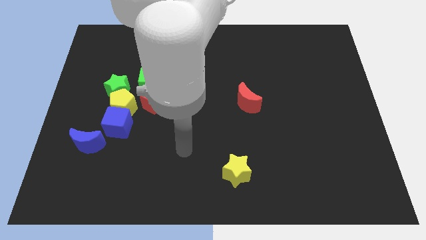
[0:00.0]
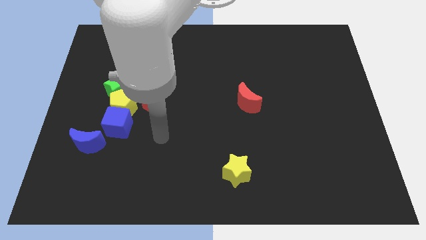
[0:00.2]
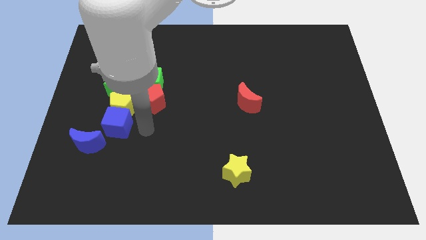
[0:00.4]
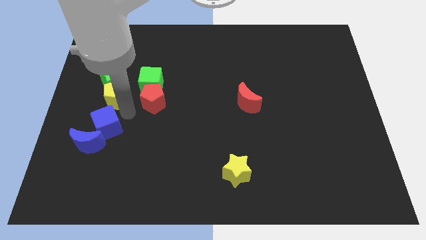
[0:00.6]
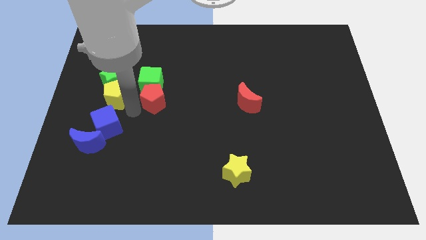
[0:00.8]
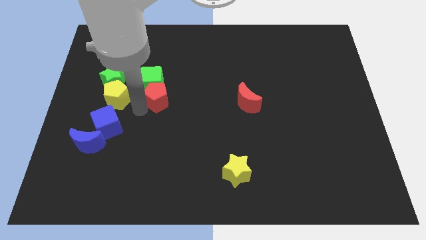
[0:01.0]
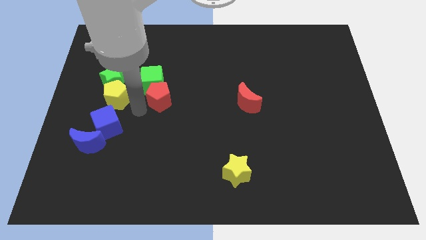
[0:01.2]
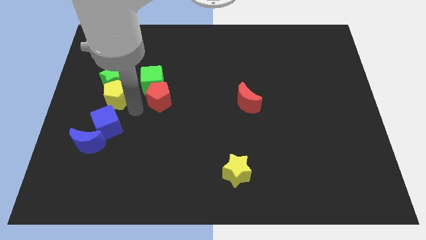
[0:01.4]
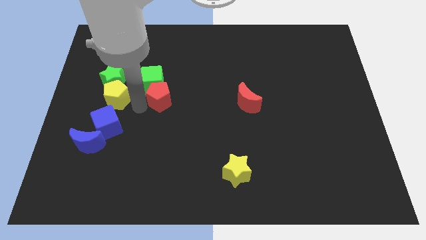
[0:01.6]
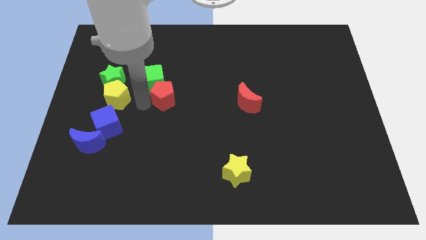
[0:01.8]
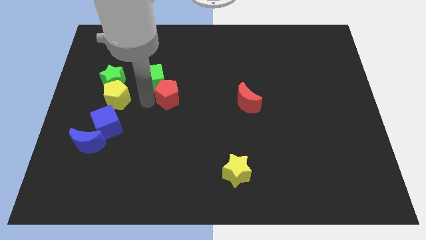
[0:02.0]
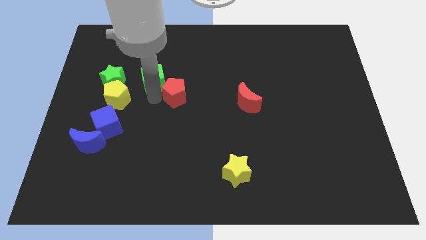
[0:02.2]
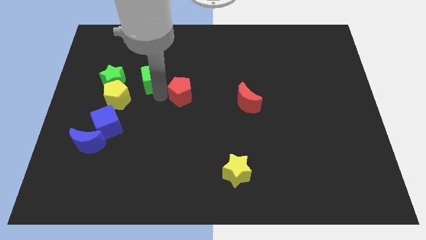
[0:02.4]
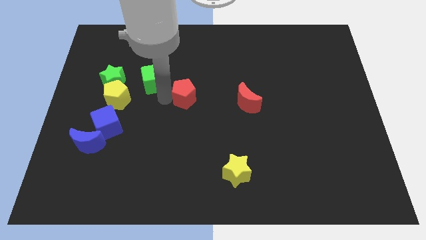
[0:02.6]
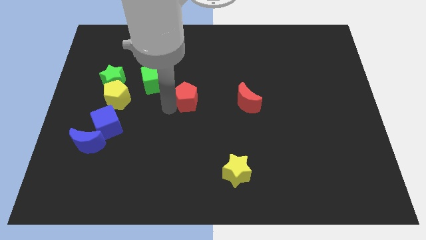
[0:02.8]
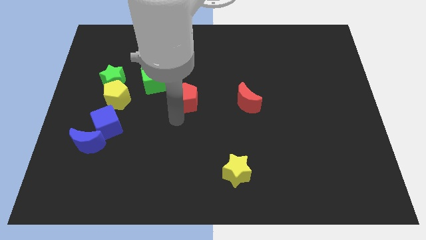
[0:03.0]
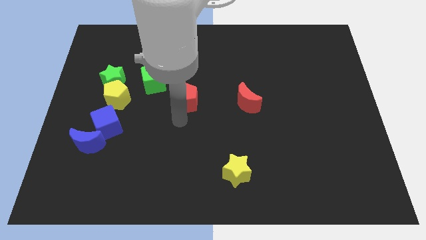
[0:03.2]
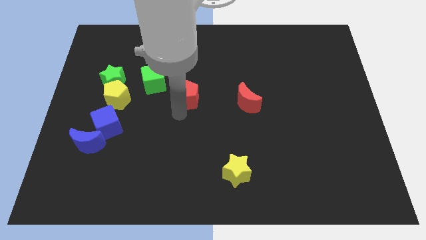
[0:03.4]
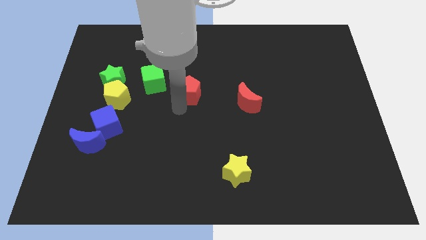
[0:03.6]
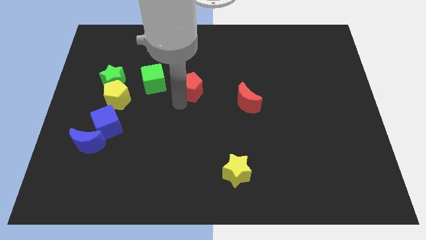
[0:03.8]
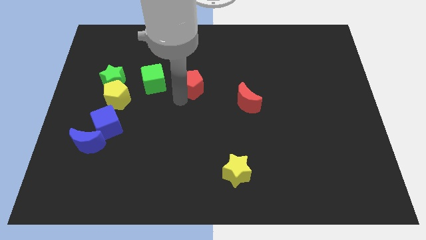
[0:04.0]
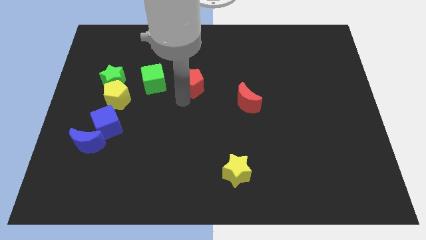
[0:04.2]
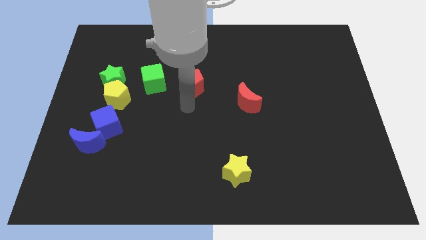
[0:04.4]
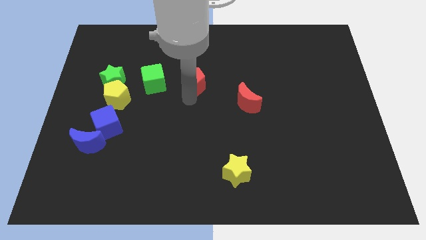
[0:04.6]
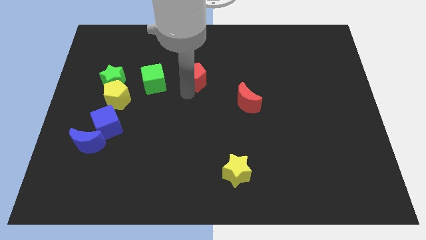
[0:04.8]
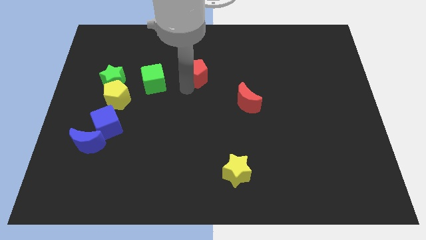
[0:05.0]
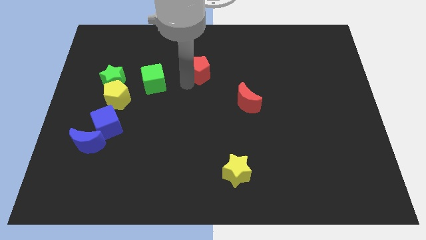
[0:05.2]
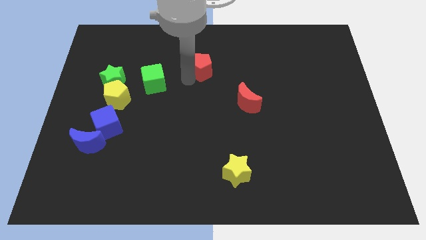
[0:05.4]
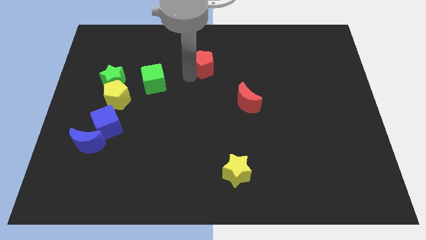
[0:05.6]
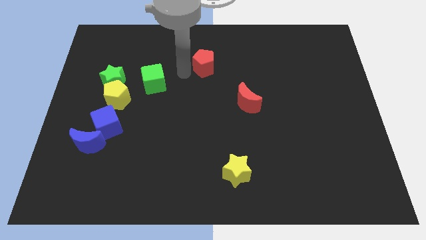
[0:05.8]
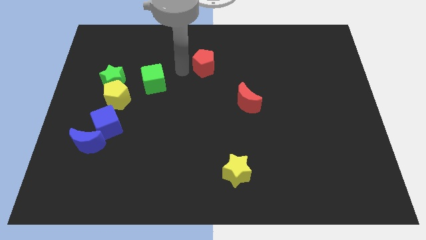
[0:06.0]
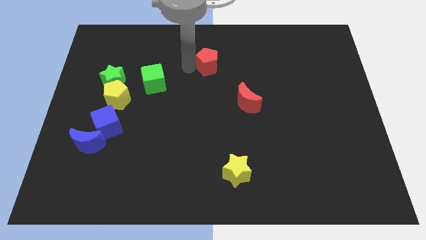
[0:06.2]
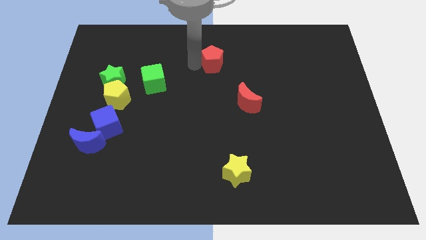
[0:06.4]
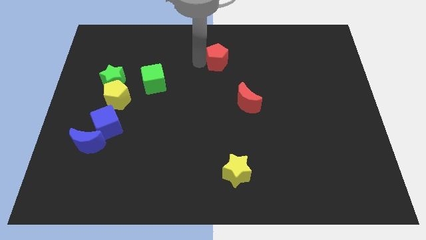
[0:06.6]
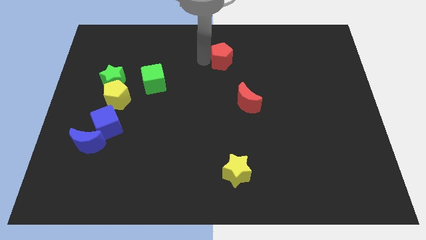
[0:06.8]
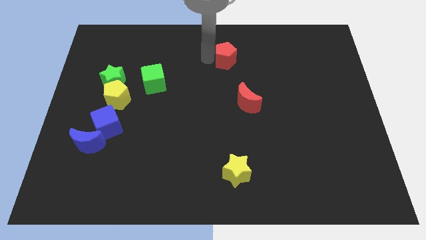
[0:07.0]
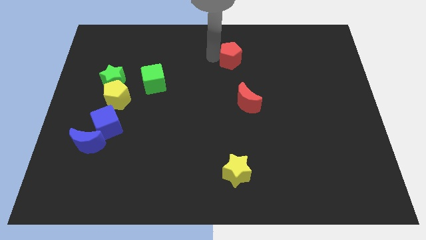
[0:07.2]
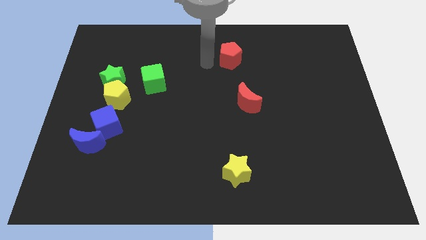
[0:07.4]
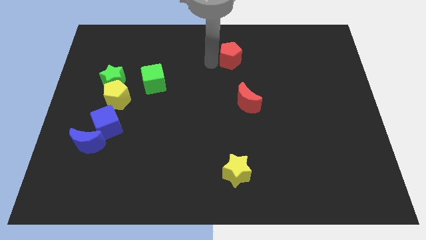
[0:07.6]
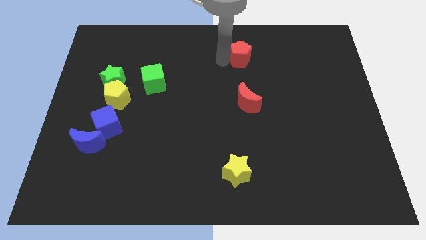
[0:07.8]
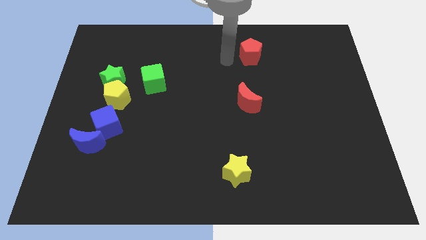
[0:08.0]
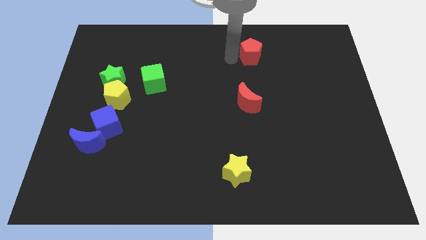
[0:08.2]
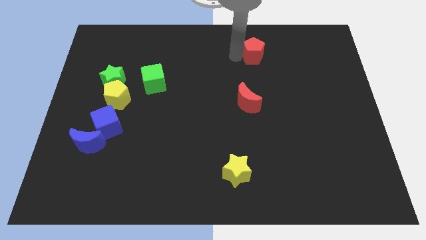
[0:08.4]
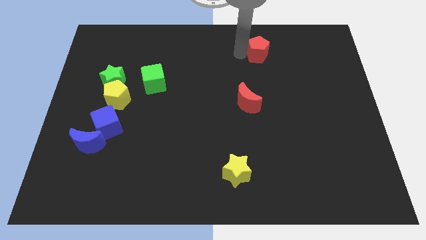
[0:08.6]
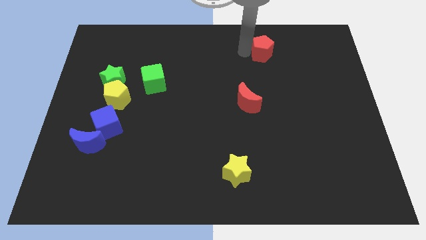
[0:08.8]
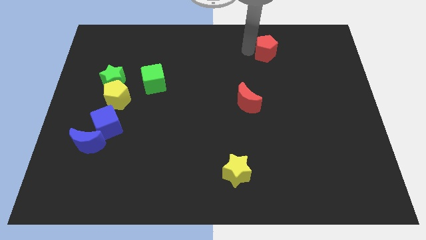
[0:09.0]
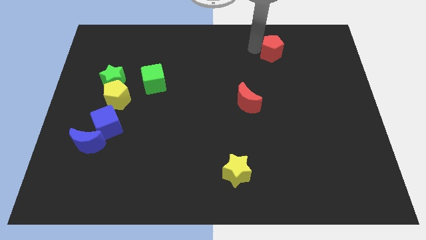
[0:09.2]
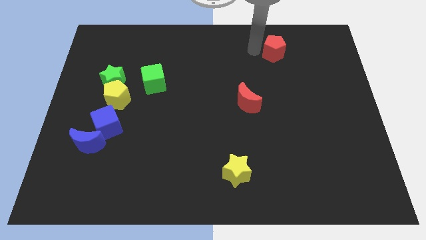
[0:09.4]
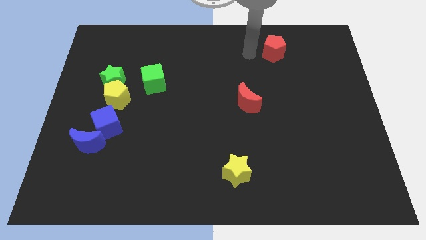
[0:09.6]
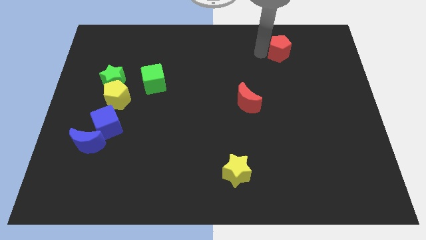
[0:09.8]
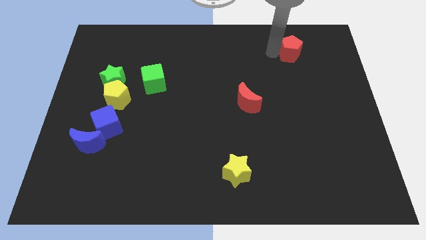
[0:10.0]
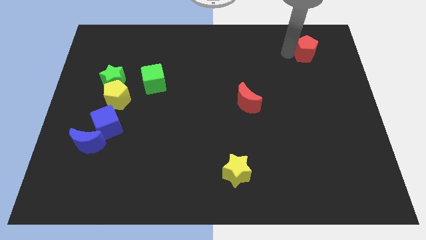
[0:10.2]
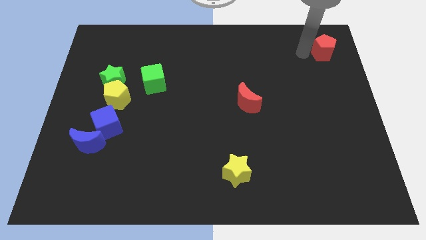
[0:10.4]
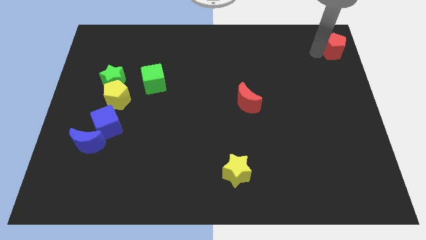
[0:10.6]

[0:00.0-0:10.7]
move the red pentagon to the upper right corner
